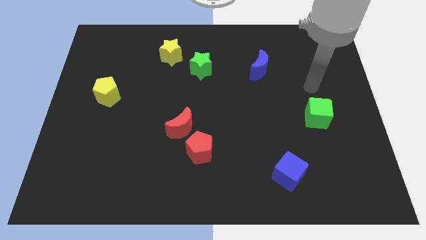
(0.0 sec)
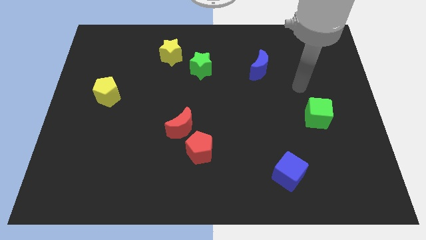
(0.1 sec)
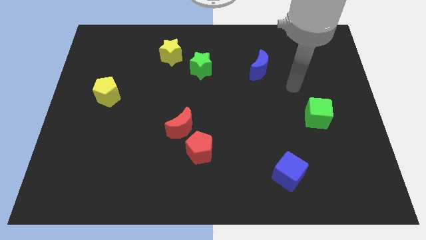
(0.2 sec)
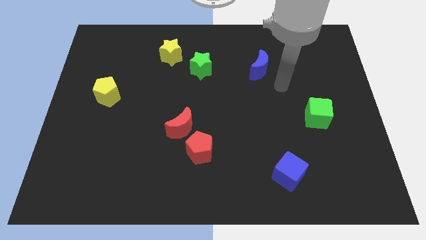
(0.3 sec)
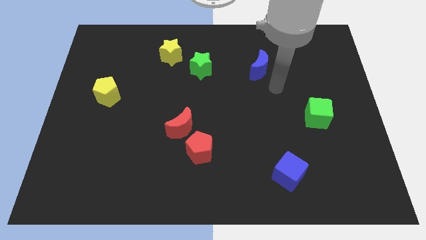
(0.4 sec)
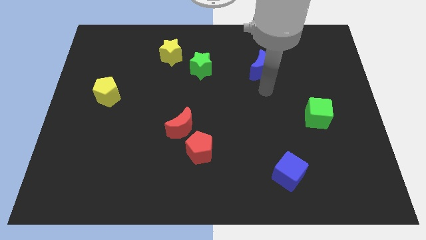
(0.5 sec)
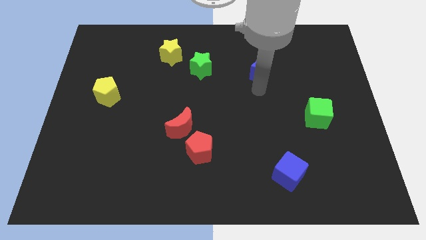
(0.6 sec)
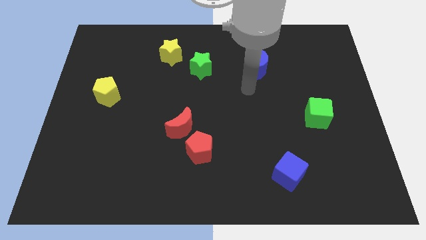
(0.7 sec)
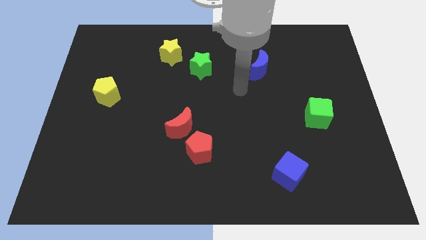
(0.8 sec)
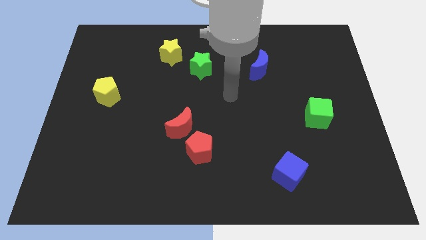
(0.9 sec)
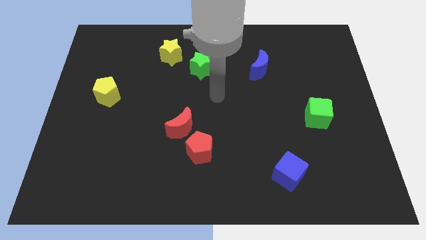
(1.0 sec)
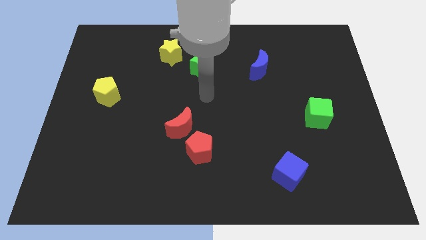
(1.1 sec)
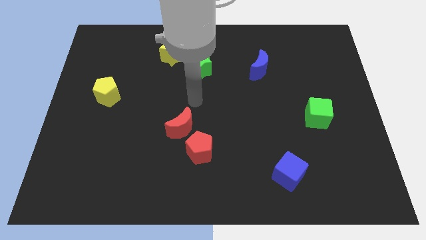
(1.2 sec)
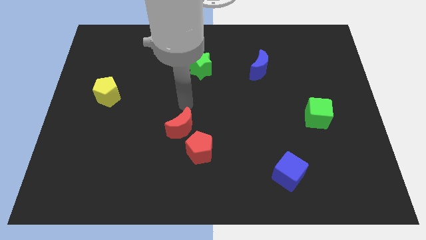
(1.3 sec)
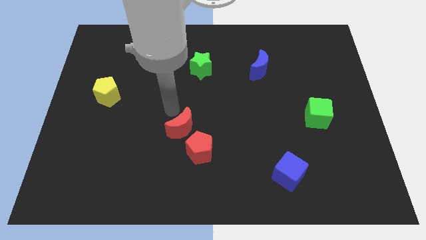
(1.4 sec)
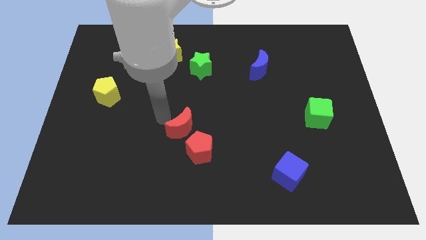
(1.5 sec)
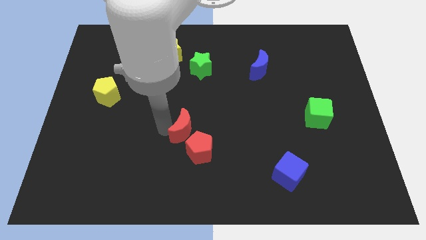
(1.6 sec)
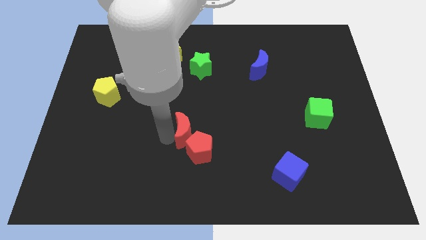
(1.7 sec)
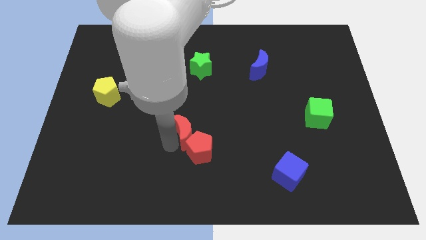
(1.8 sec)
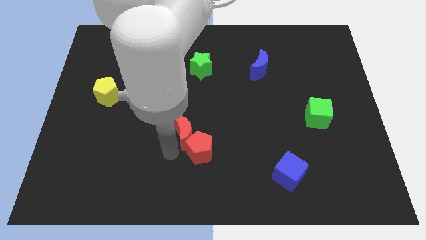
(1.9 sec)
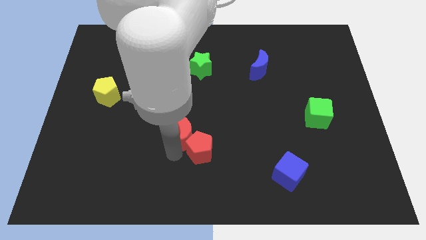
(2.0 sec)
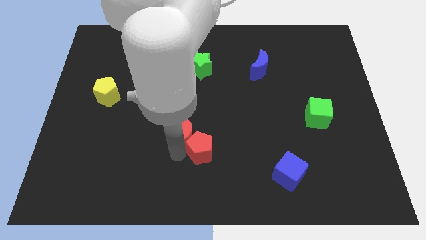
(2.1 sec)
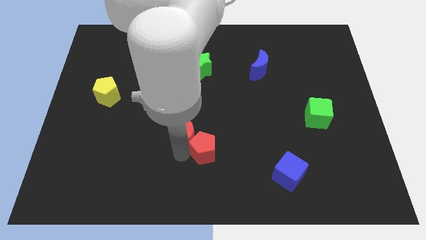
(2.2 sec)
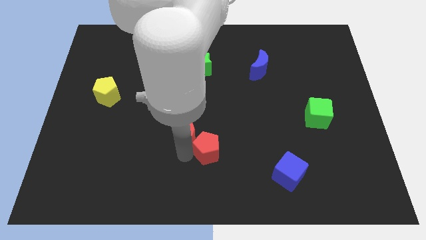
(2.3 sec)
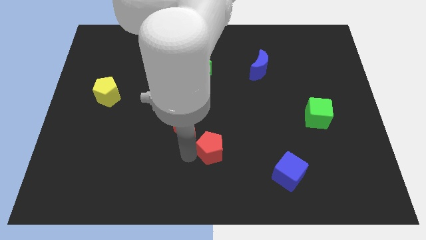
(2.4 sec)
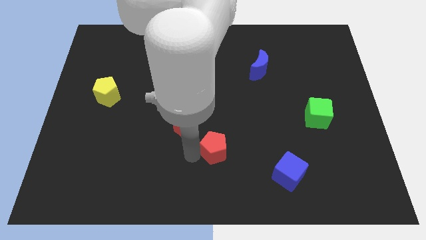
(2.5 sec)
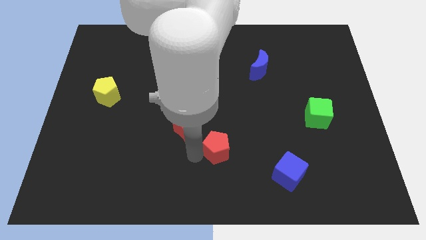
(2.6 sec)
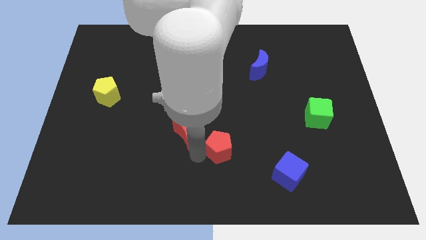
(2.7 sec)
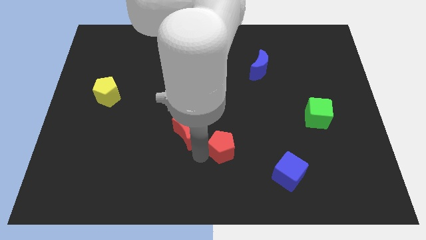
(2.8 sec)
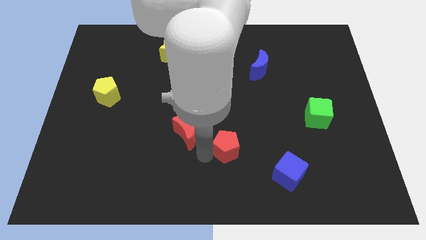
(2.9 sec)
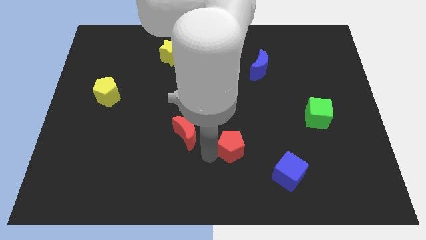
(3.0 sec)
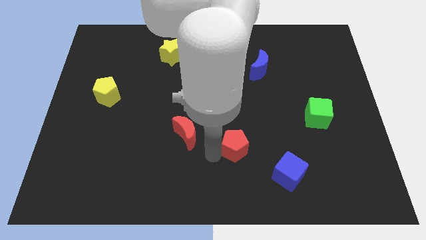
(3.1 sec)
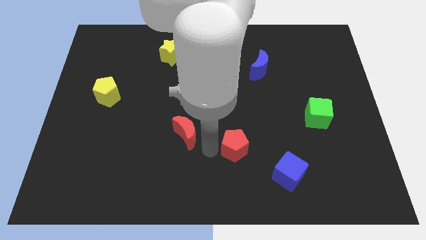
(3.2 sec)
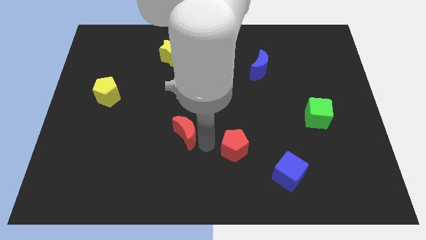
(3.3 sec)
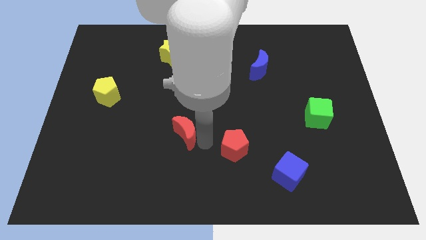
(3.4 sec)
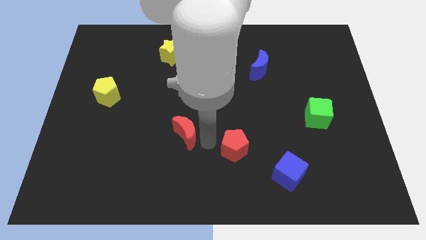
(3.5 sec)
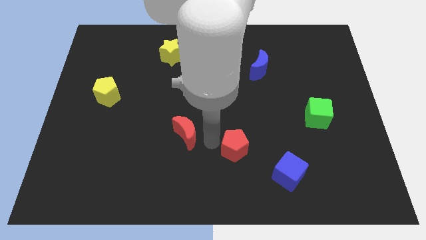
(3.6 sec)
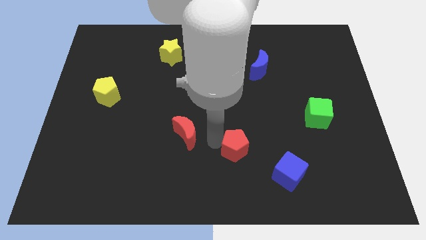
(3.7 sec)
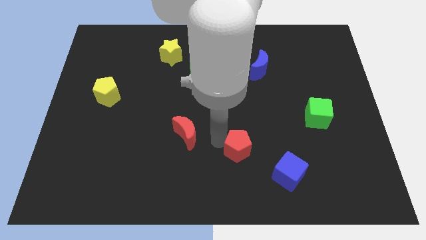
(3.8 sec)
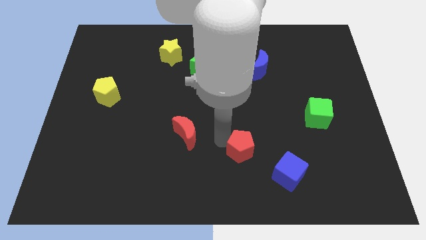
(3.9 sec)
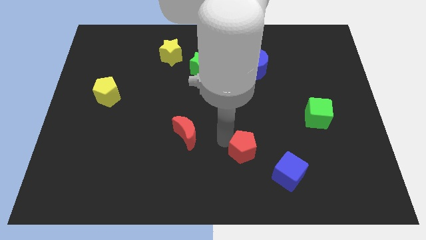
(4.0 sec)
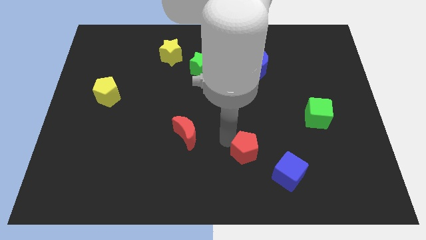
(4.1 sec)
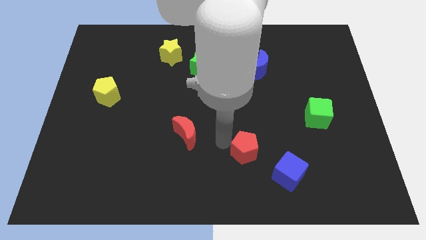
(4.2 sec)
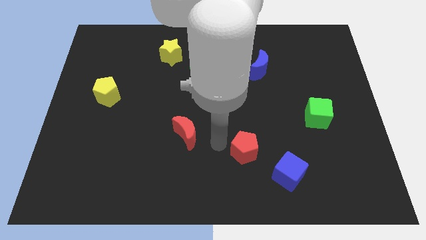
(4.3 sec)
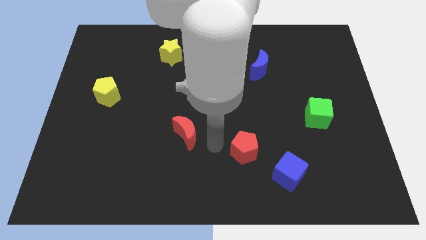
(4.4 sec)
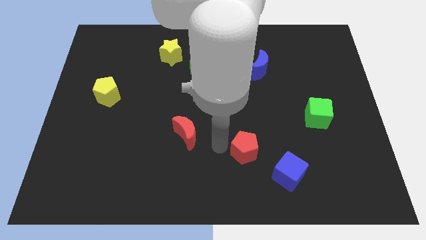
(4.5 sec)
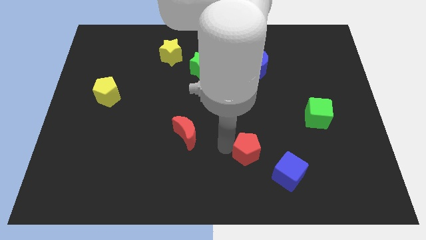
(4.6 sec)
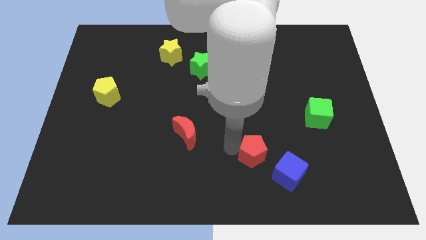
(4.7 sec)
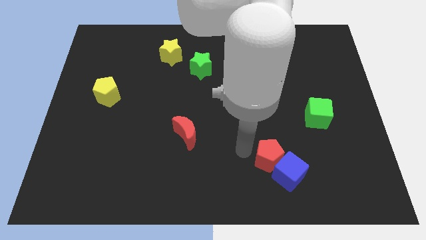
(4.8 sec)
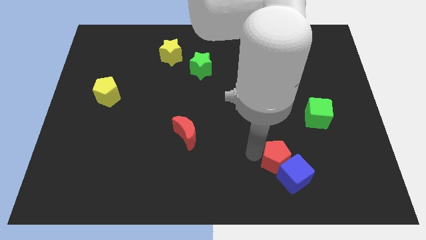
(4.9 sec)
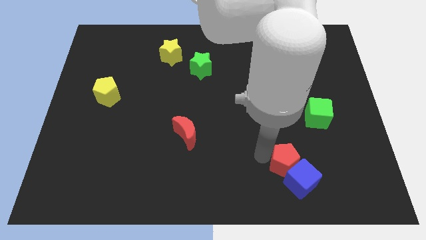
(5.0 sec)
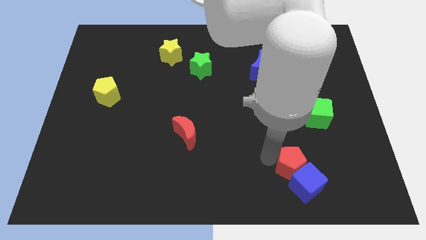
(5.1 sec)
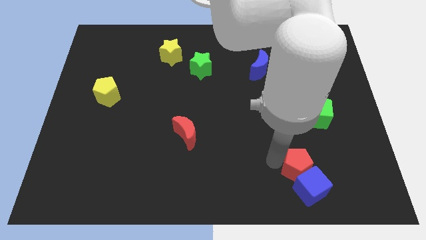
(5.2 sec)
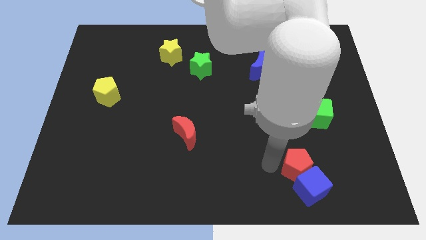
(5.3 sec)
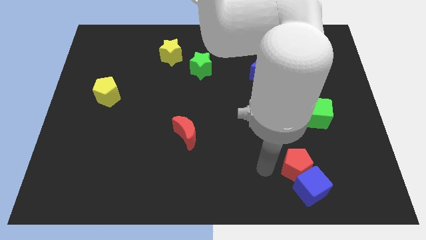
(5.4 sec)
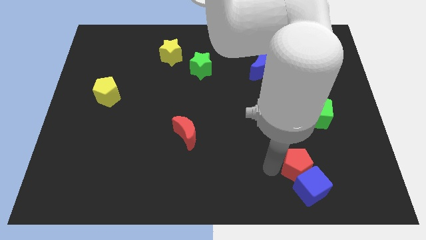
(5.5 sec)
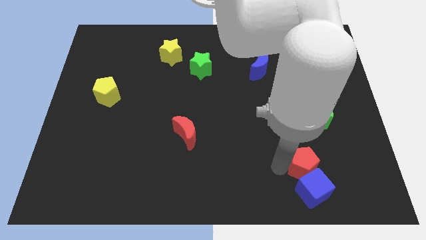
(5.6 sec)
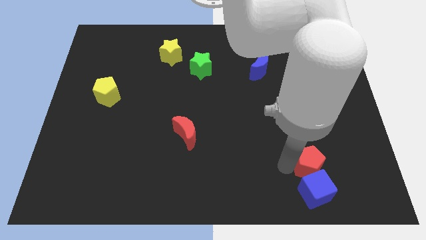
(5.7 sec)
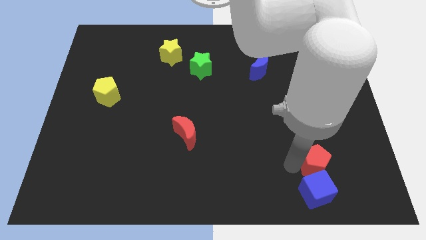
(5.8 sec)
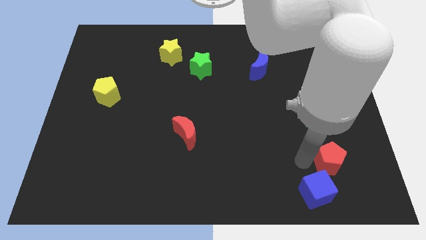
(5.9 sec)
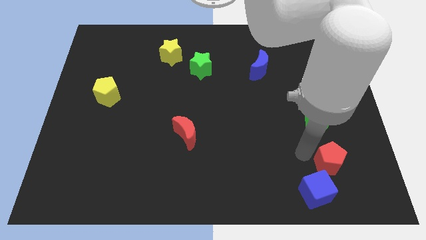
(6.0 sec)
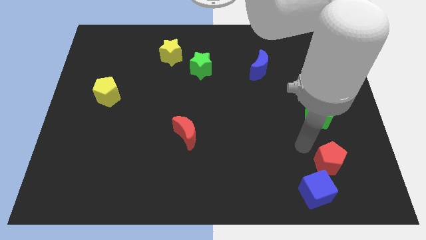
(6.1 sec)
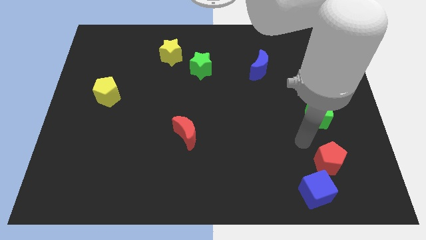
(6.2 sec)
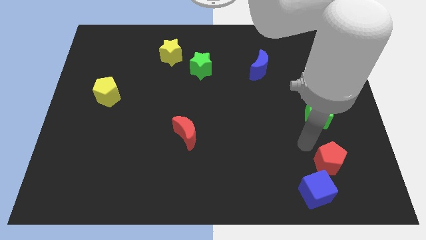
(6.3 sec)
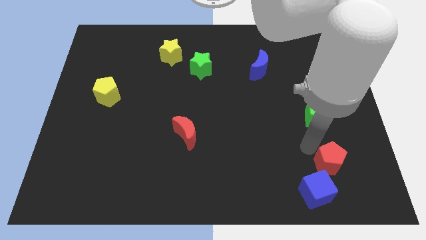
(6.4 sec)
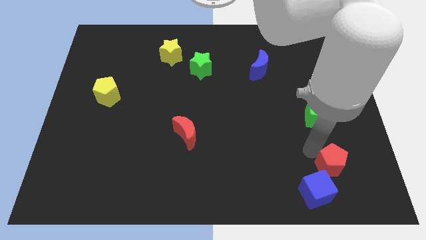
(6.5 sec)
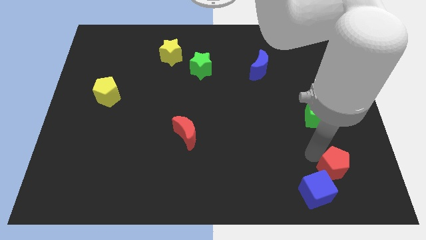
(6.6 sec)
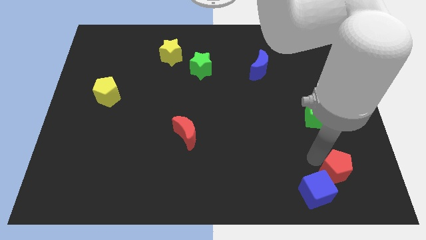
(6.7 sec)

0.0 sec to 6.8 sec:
push the red pentagon to the right side of the blue cube
